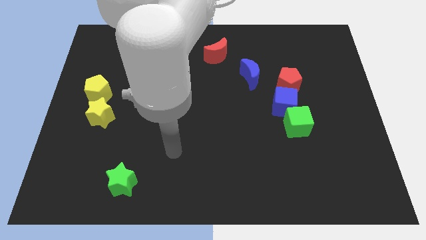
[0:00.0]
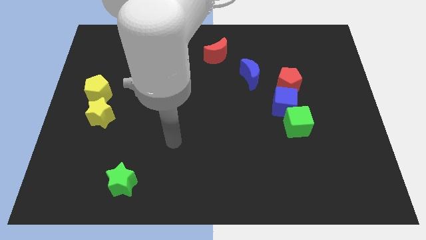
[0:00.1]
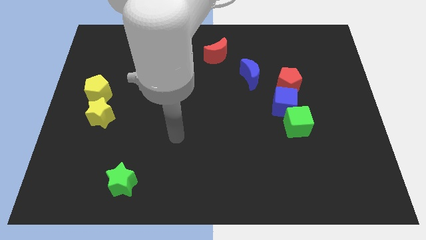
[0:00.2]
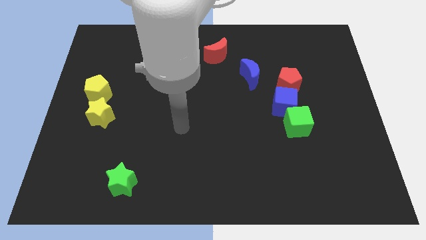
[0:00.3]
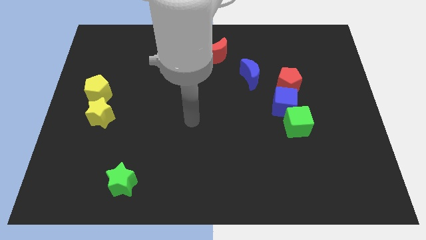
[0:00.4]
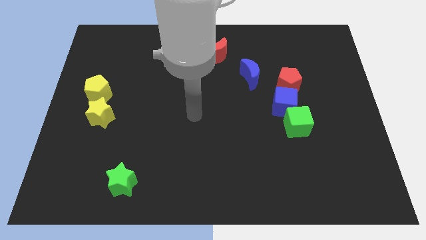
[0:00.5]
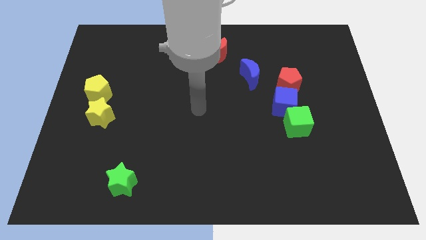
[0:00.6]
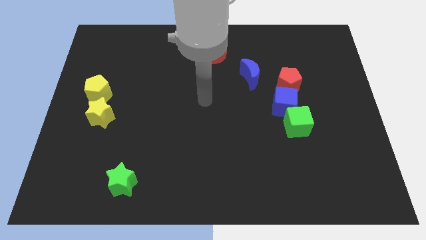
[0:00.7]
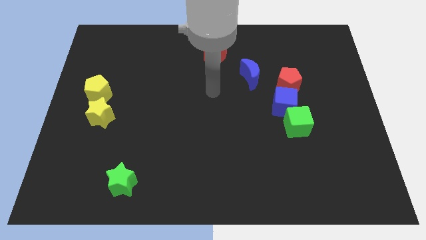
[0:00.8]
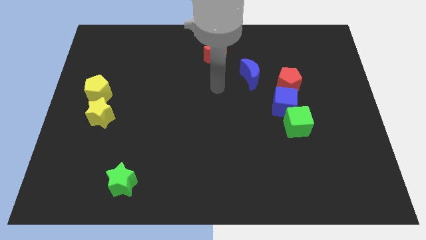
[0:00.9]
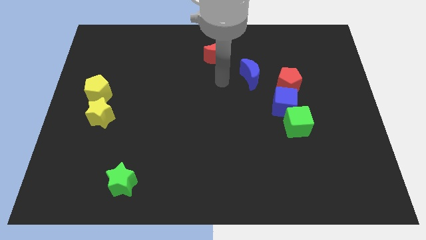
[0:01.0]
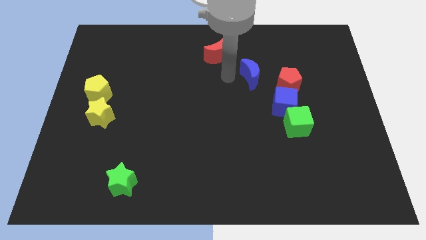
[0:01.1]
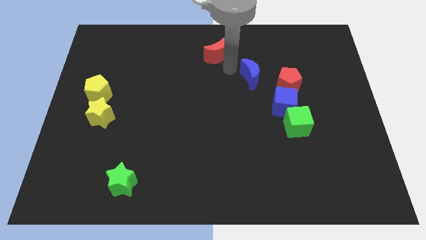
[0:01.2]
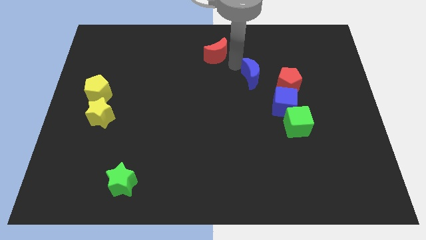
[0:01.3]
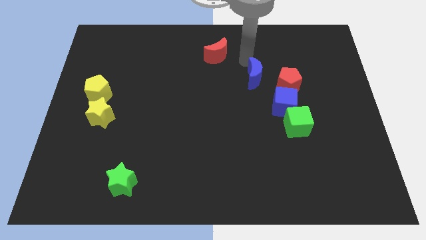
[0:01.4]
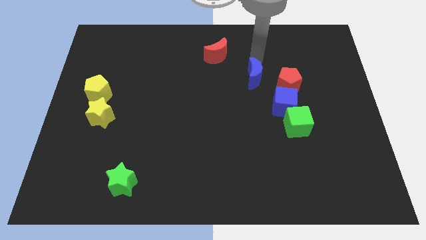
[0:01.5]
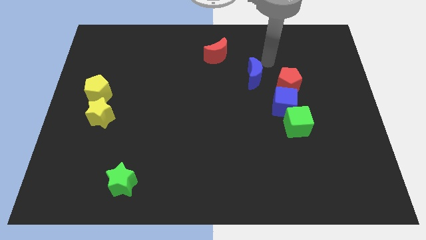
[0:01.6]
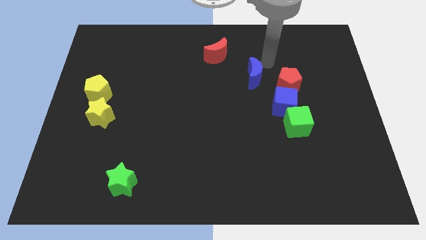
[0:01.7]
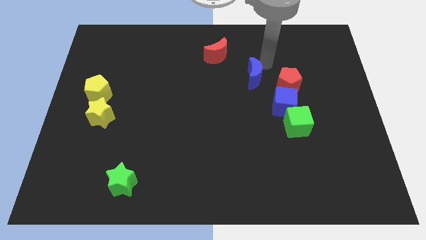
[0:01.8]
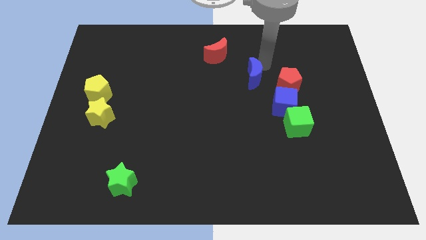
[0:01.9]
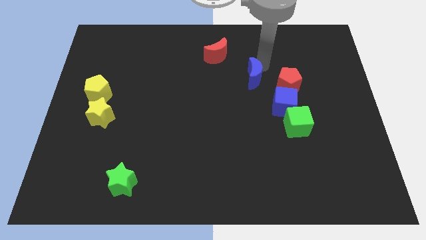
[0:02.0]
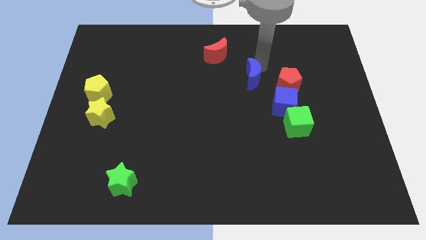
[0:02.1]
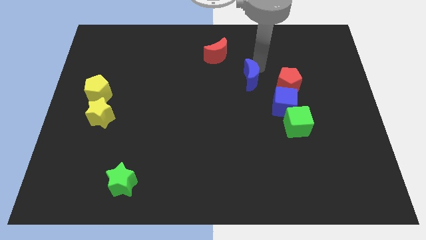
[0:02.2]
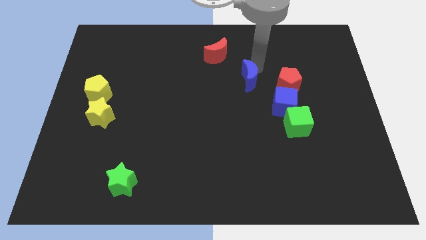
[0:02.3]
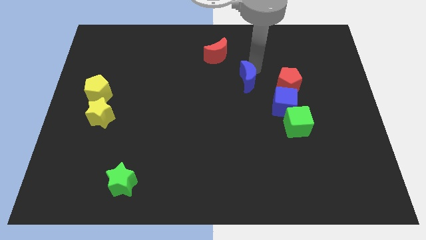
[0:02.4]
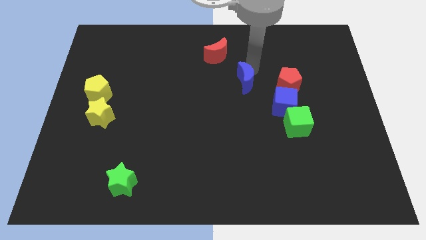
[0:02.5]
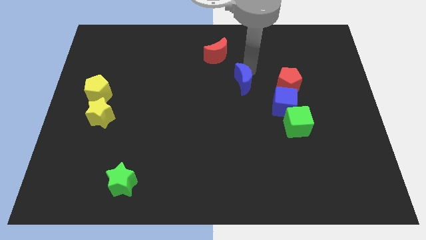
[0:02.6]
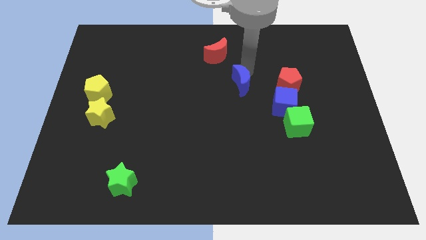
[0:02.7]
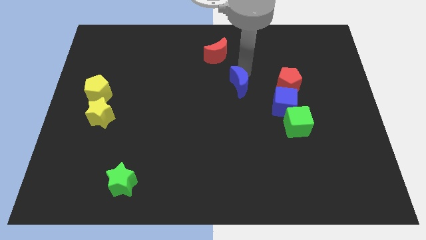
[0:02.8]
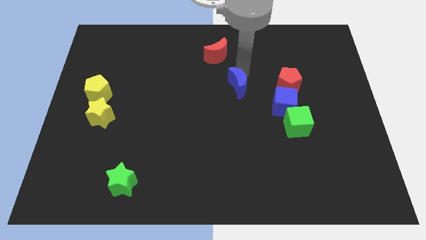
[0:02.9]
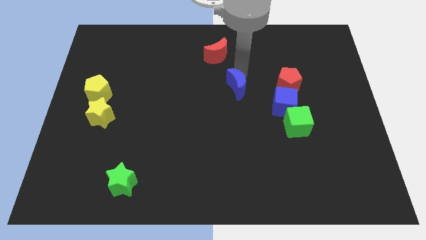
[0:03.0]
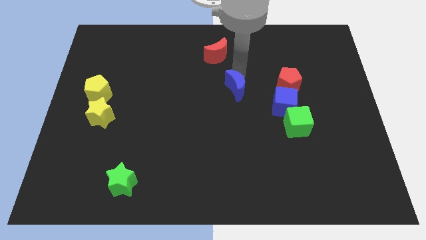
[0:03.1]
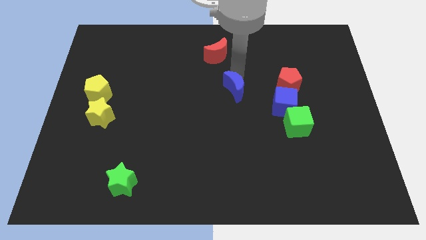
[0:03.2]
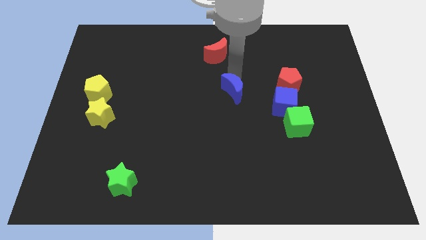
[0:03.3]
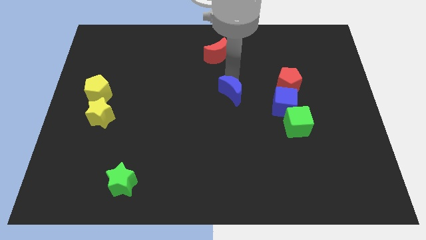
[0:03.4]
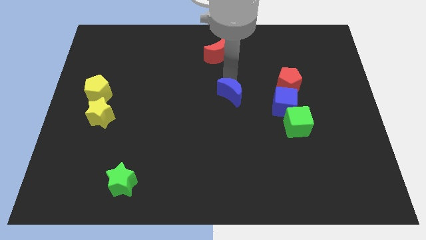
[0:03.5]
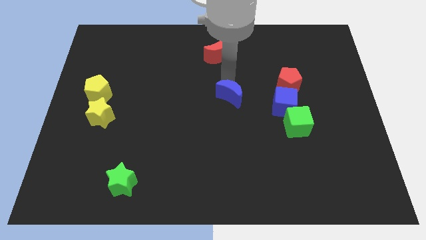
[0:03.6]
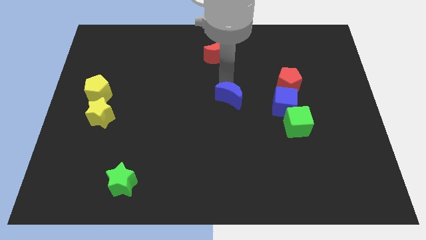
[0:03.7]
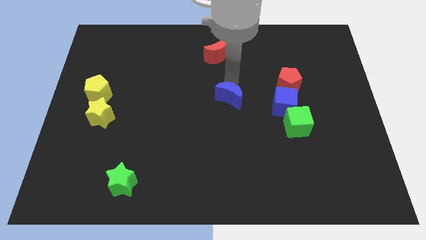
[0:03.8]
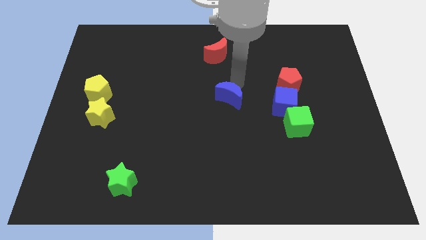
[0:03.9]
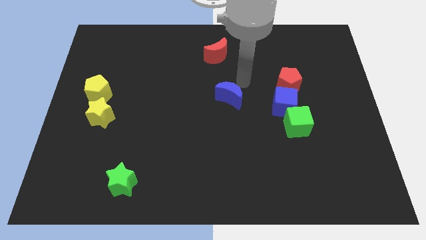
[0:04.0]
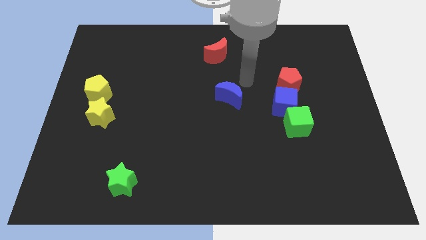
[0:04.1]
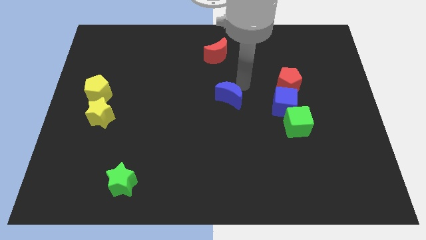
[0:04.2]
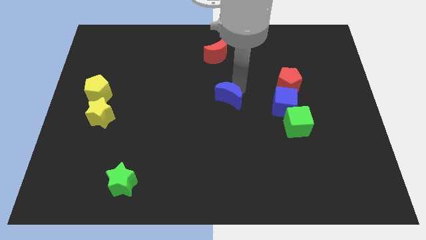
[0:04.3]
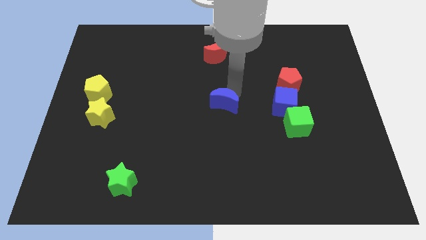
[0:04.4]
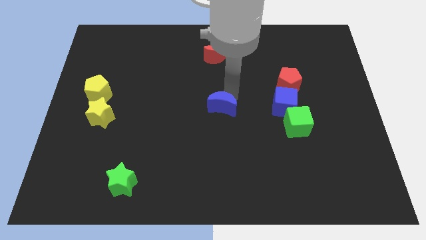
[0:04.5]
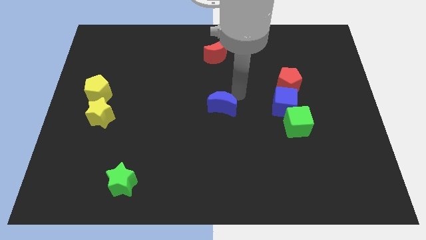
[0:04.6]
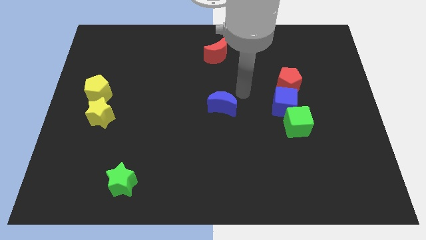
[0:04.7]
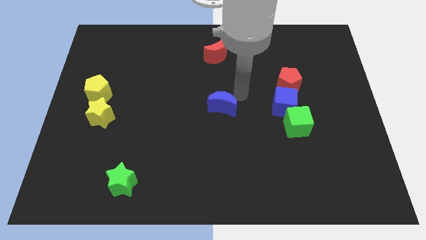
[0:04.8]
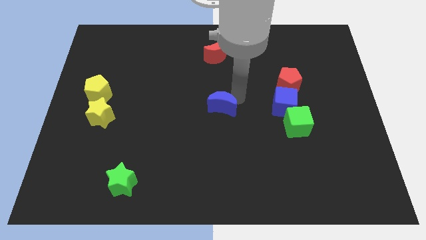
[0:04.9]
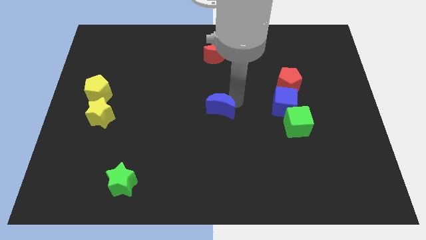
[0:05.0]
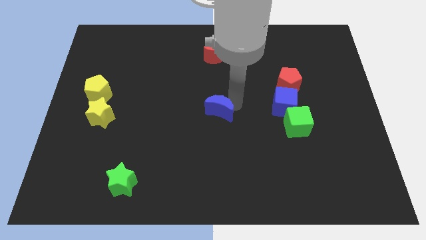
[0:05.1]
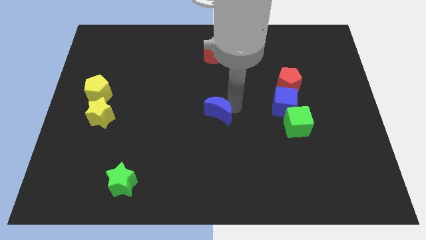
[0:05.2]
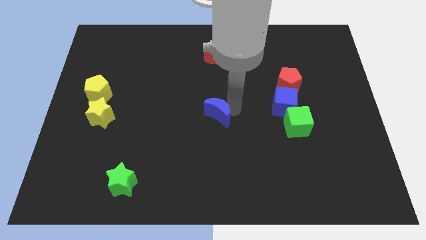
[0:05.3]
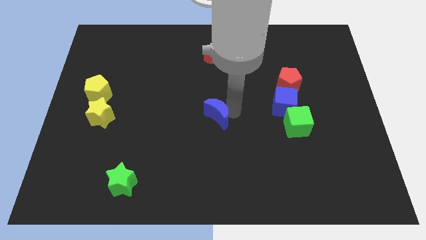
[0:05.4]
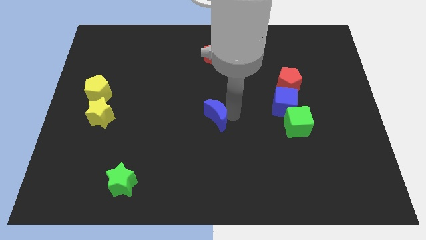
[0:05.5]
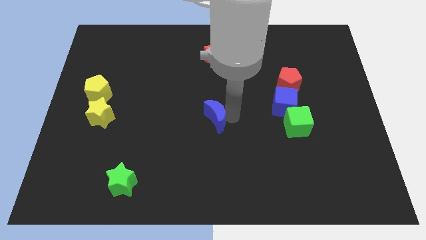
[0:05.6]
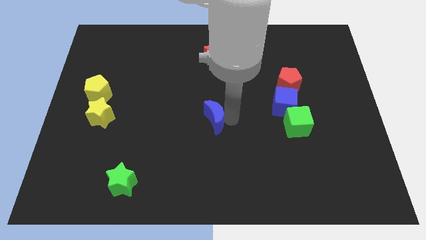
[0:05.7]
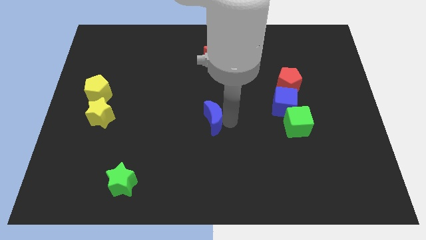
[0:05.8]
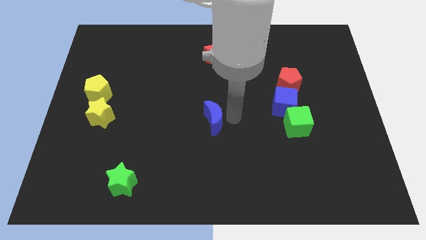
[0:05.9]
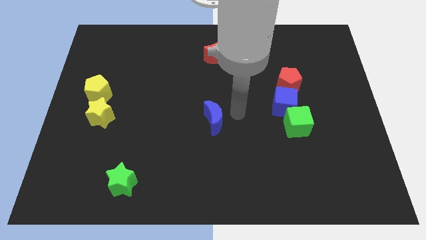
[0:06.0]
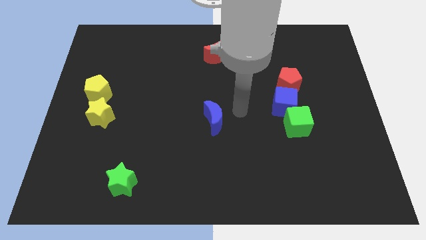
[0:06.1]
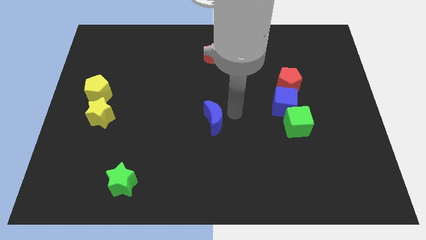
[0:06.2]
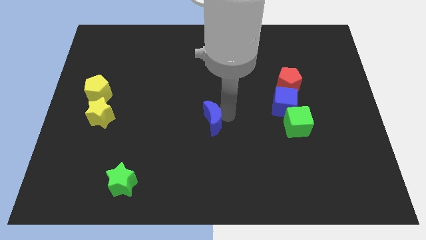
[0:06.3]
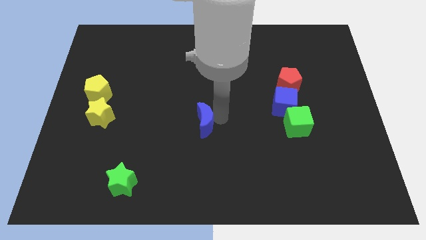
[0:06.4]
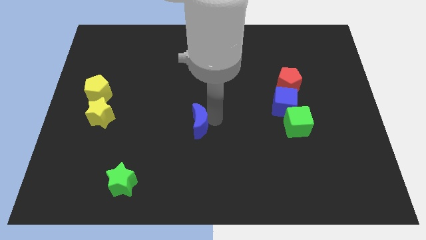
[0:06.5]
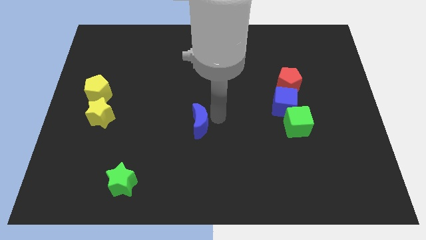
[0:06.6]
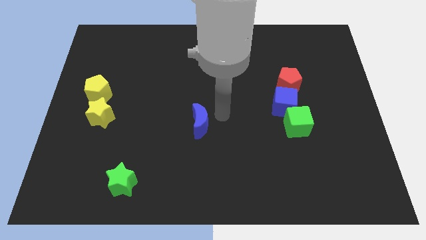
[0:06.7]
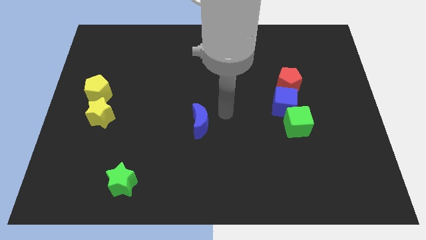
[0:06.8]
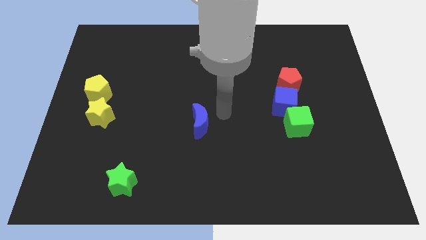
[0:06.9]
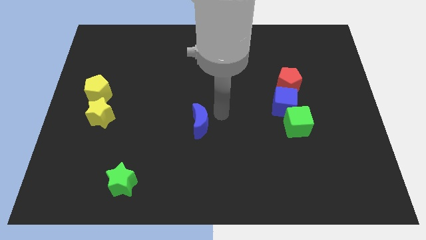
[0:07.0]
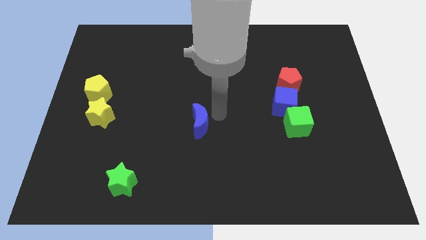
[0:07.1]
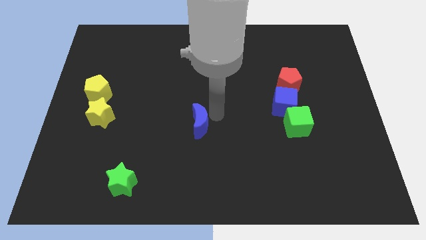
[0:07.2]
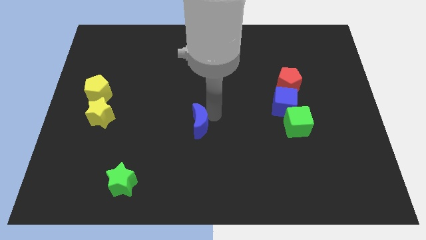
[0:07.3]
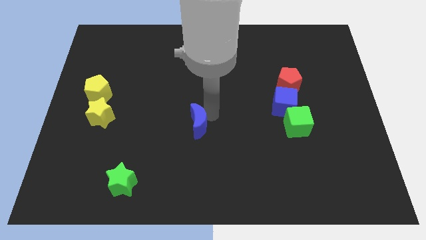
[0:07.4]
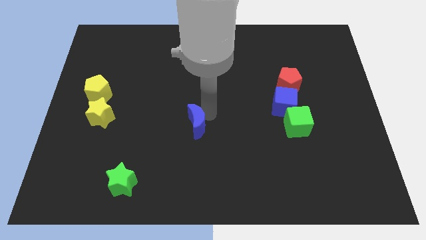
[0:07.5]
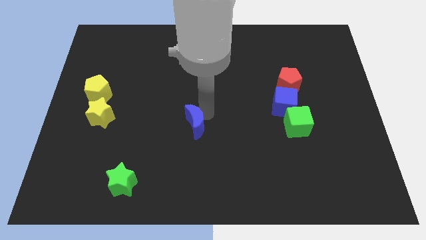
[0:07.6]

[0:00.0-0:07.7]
move the blue moon downwards and left
